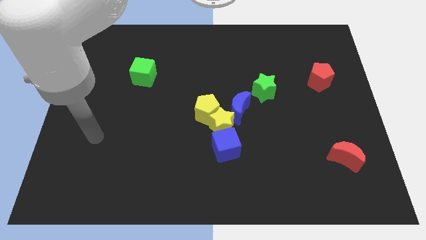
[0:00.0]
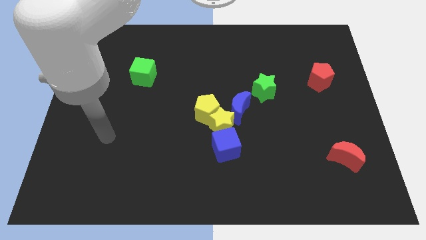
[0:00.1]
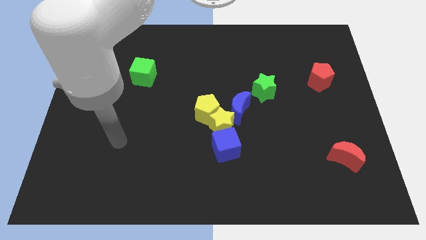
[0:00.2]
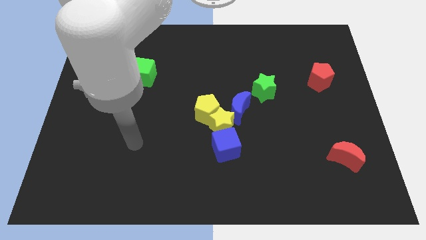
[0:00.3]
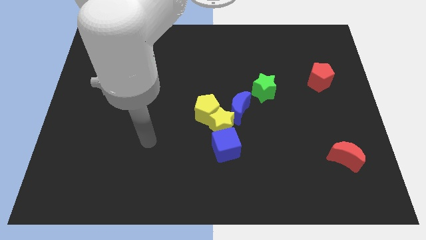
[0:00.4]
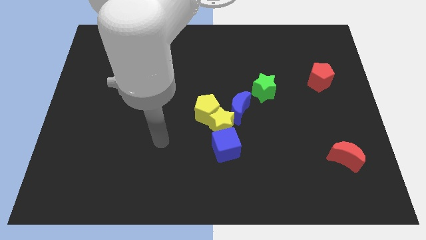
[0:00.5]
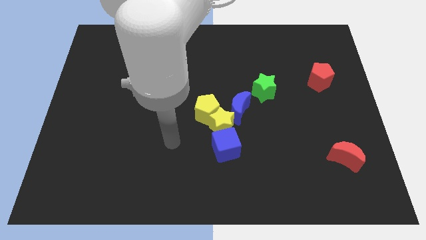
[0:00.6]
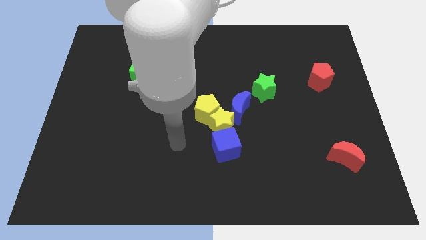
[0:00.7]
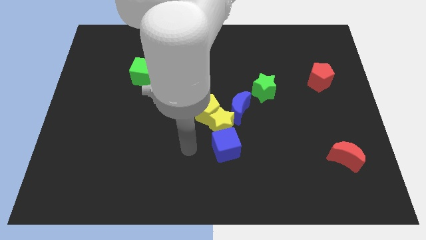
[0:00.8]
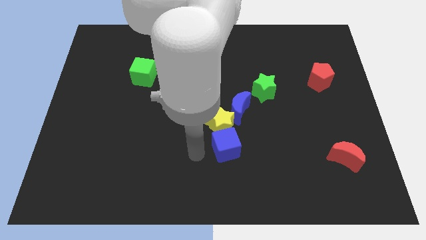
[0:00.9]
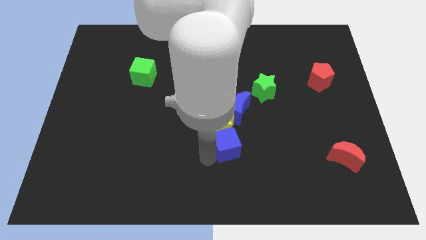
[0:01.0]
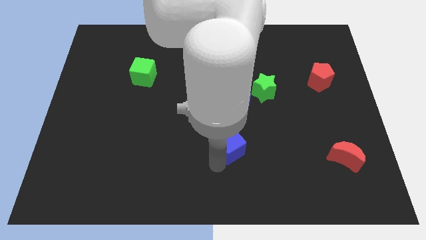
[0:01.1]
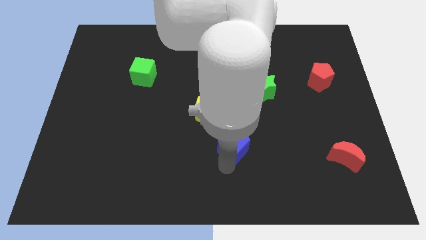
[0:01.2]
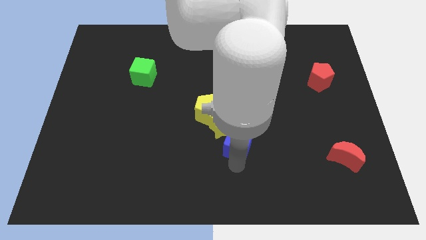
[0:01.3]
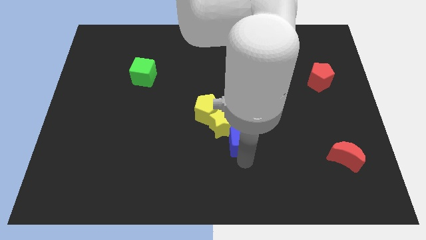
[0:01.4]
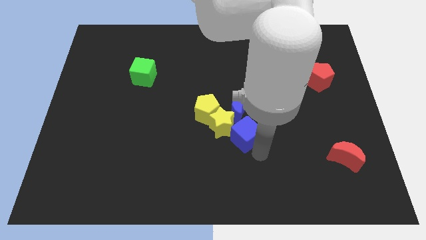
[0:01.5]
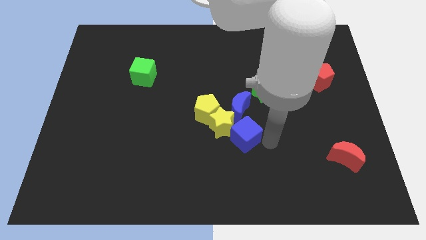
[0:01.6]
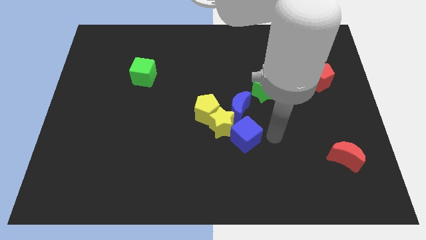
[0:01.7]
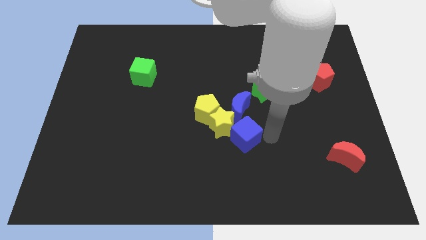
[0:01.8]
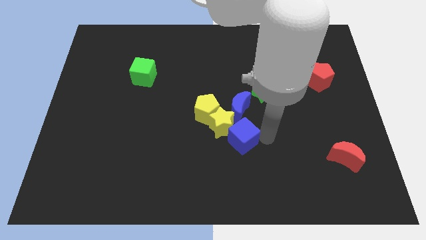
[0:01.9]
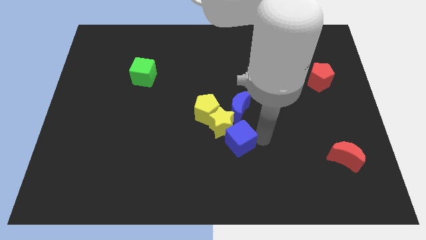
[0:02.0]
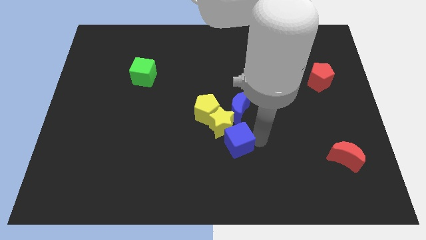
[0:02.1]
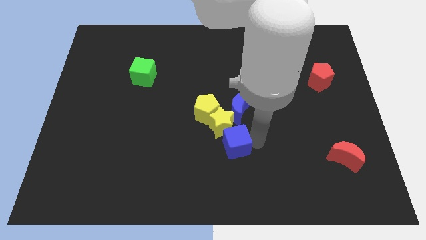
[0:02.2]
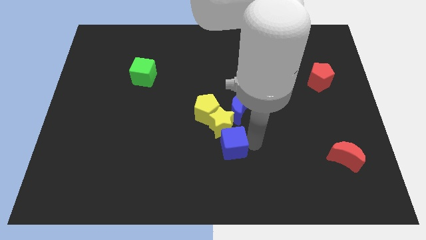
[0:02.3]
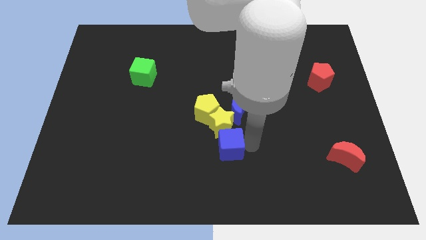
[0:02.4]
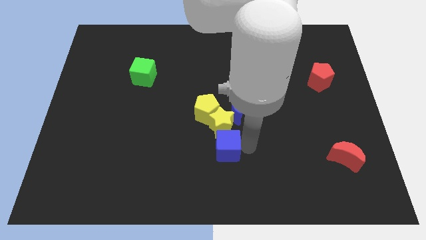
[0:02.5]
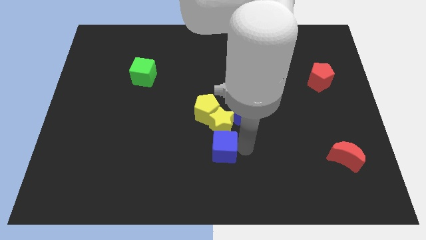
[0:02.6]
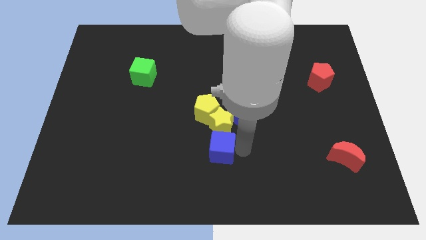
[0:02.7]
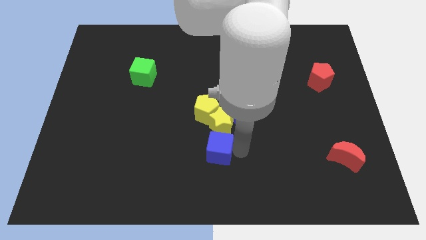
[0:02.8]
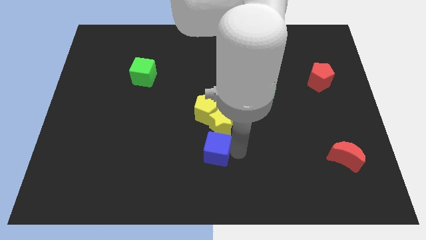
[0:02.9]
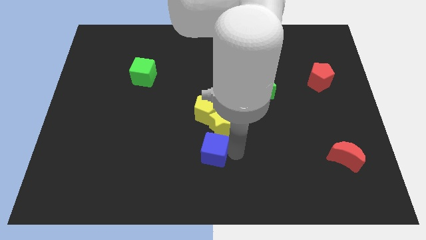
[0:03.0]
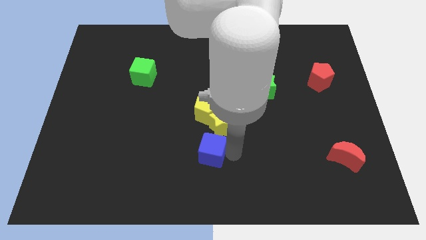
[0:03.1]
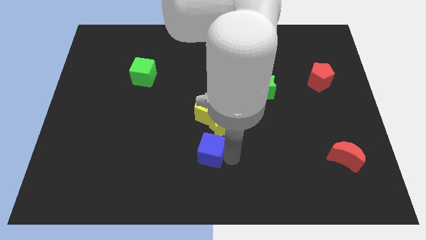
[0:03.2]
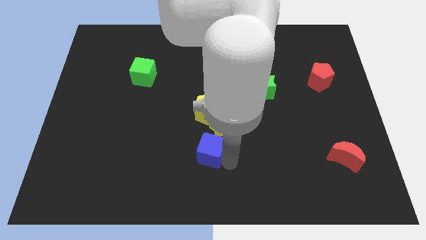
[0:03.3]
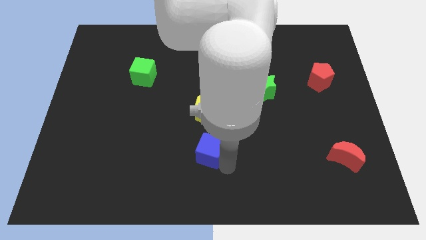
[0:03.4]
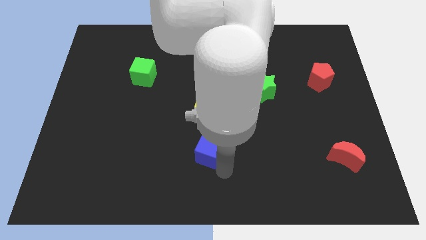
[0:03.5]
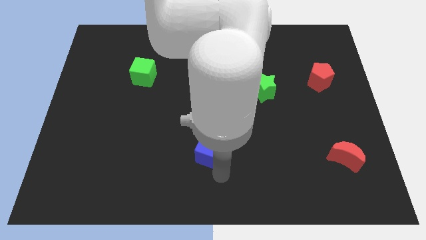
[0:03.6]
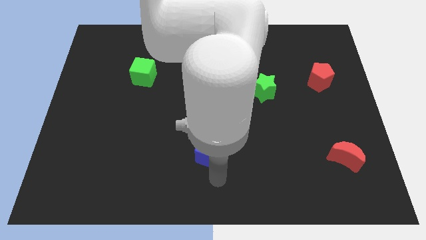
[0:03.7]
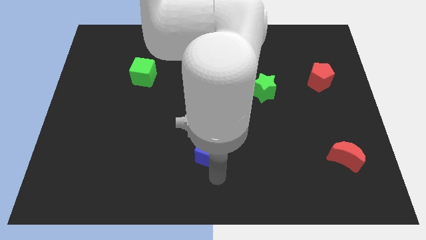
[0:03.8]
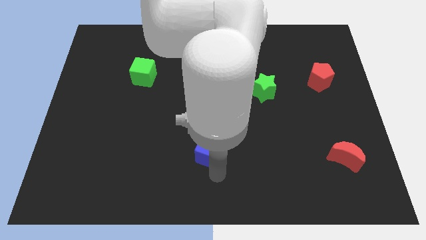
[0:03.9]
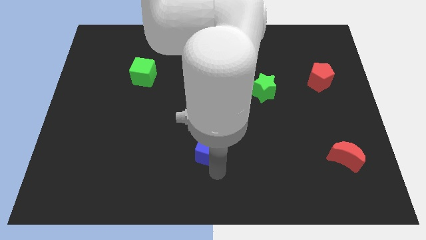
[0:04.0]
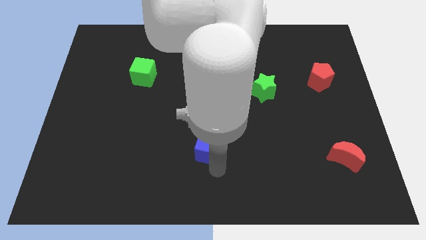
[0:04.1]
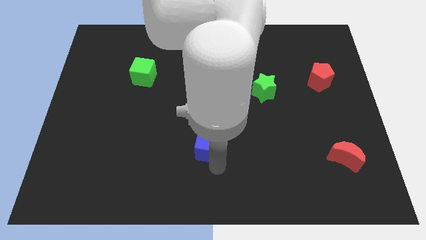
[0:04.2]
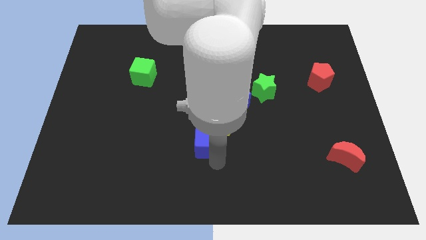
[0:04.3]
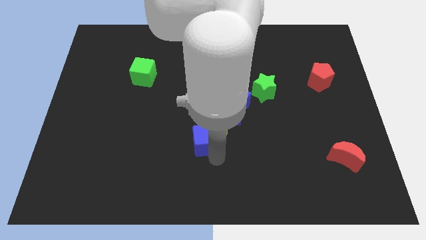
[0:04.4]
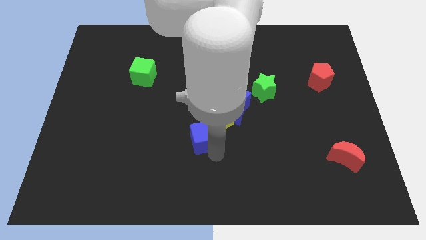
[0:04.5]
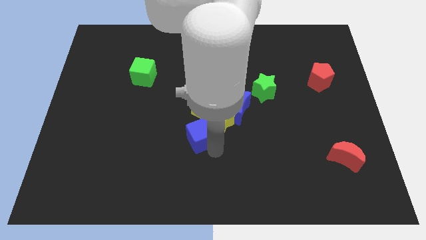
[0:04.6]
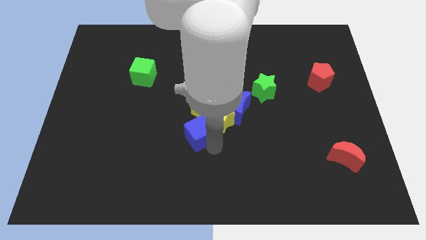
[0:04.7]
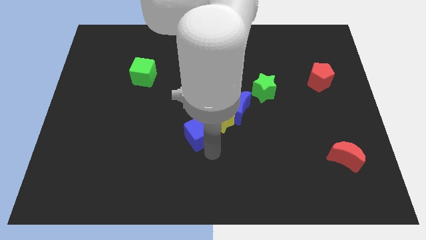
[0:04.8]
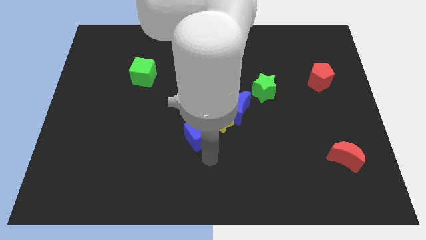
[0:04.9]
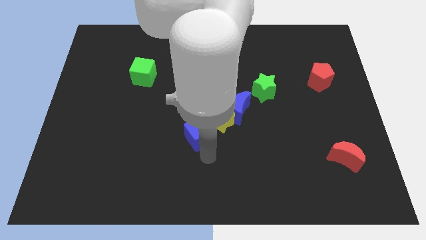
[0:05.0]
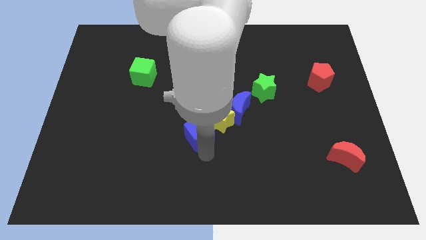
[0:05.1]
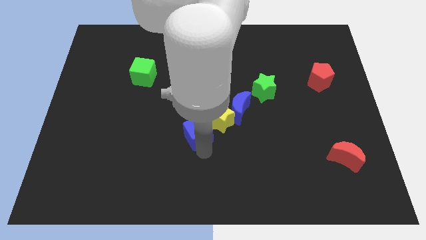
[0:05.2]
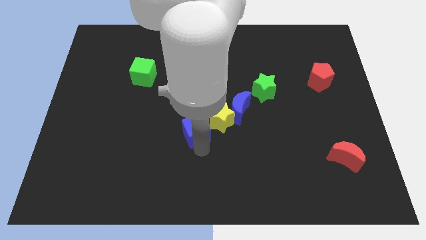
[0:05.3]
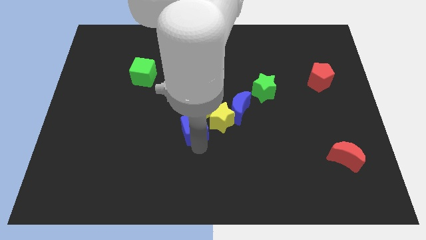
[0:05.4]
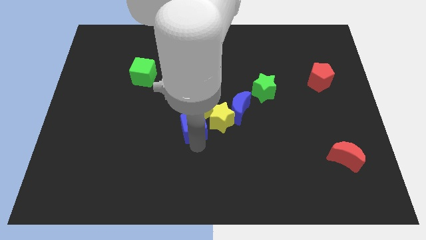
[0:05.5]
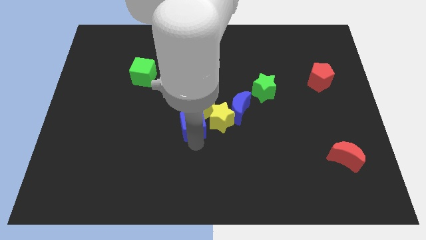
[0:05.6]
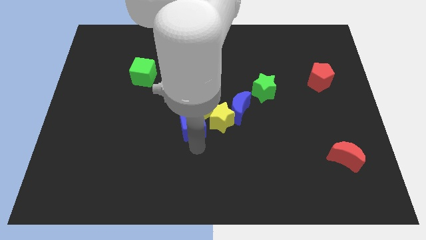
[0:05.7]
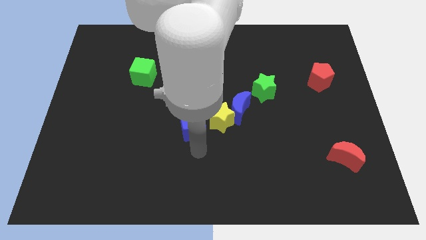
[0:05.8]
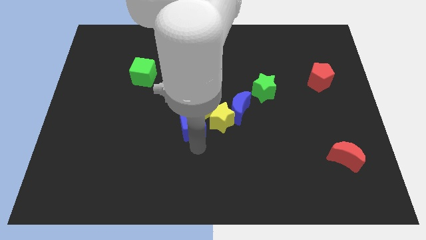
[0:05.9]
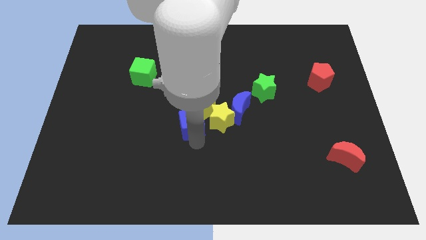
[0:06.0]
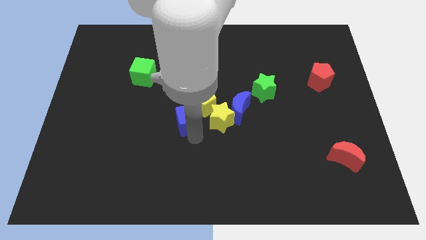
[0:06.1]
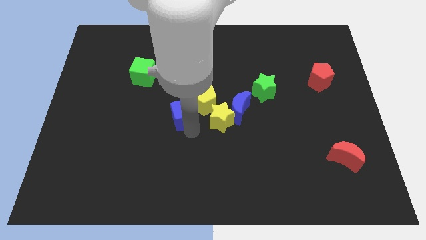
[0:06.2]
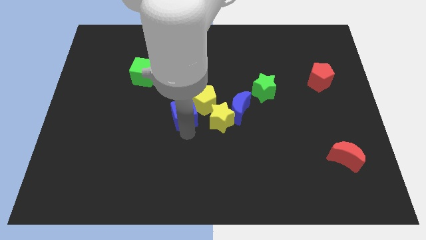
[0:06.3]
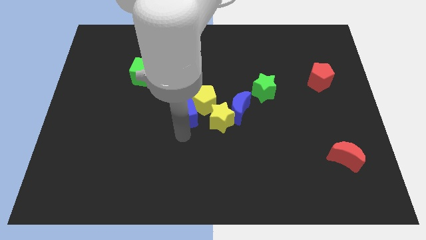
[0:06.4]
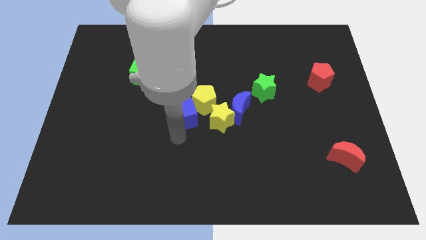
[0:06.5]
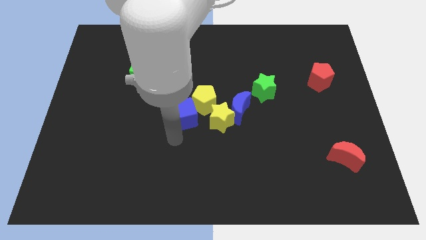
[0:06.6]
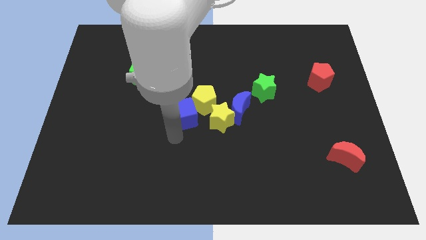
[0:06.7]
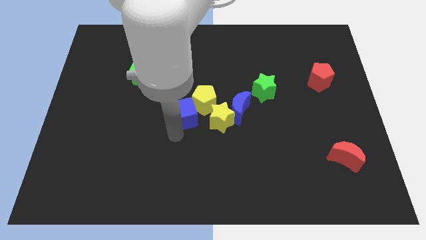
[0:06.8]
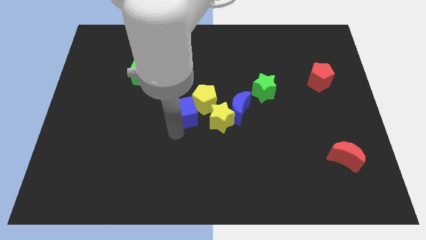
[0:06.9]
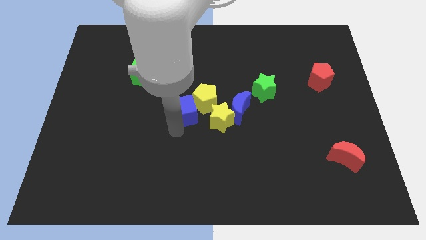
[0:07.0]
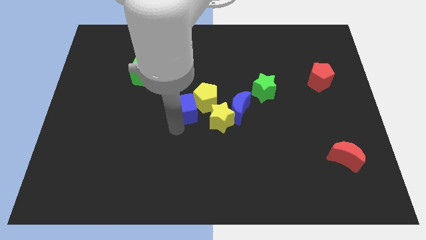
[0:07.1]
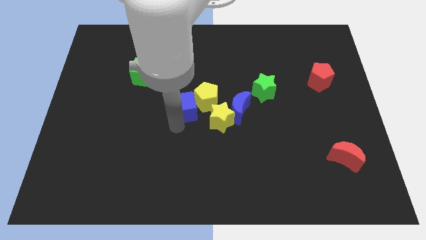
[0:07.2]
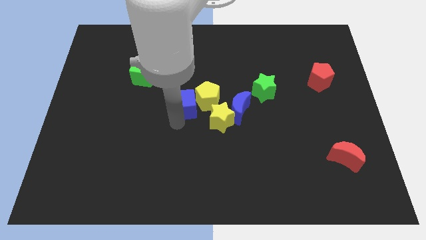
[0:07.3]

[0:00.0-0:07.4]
push the blue cube upwards somewhat

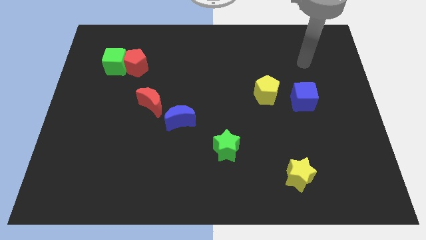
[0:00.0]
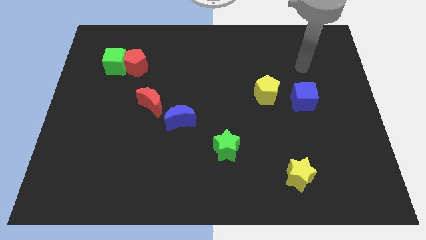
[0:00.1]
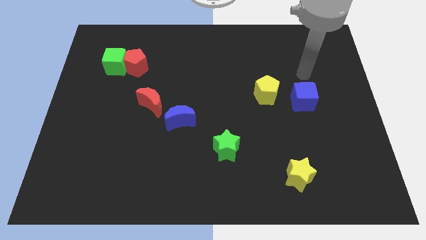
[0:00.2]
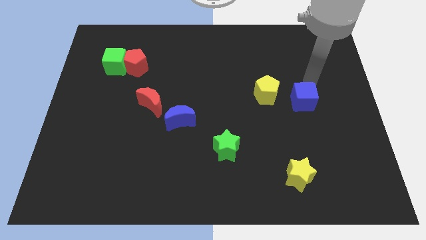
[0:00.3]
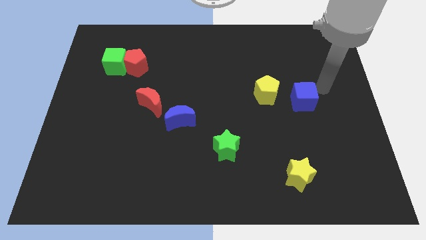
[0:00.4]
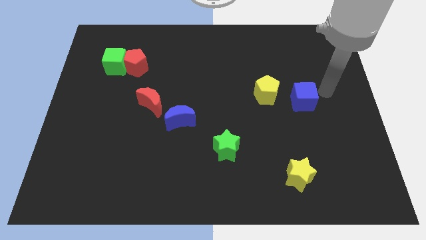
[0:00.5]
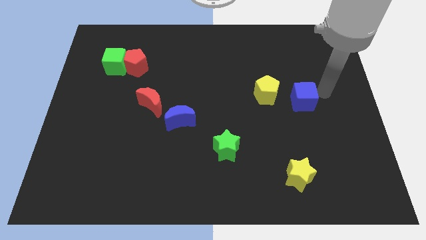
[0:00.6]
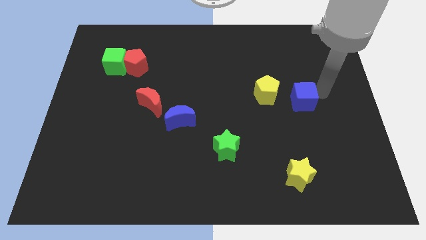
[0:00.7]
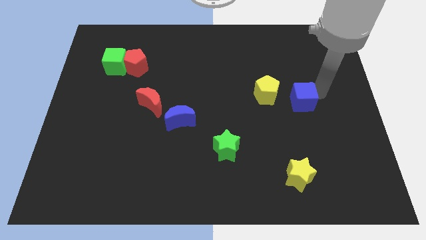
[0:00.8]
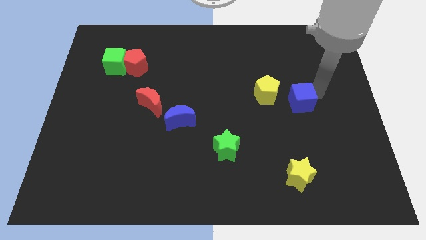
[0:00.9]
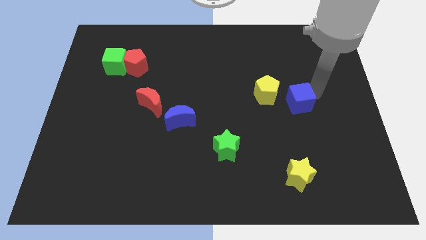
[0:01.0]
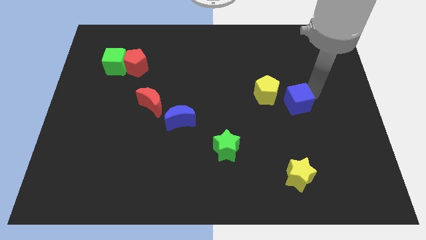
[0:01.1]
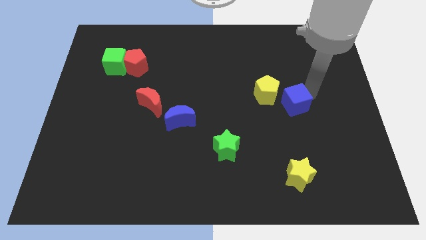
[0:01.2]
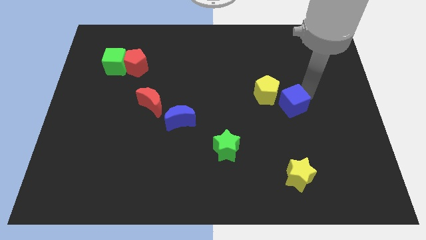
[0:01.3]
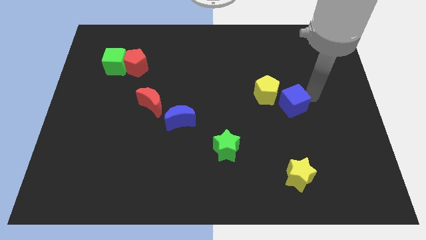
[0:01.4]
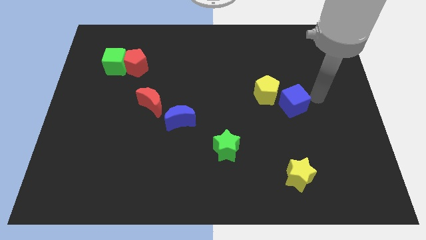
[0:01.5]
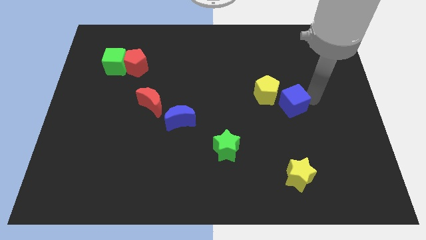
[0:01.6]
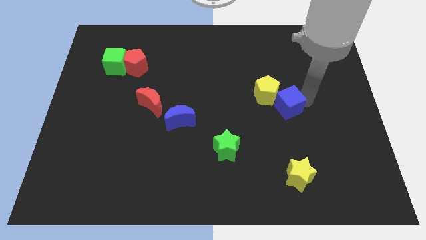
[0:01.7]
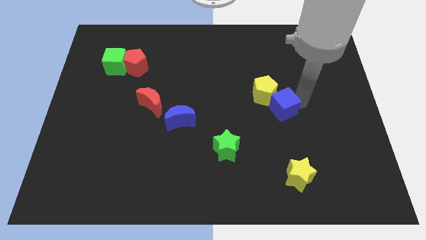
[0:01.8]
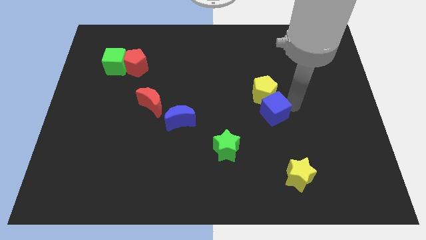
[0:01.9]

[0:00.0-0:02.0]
move the blue cube left somewhat
